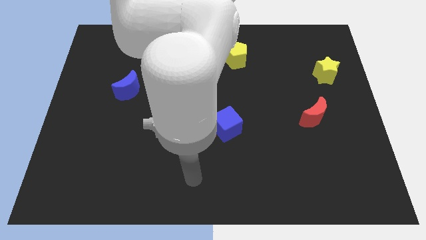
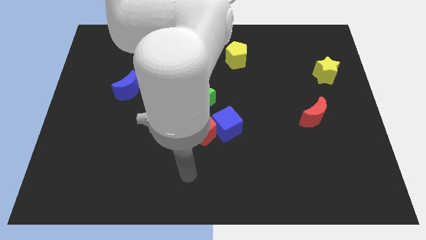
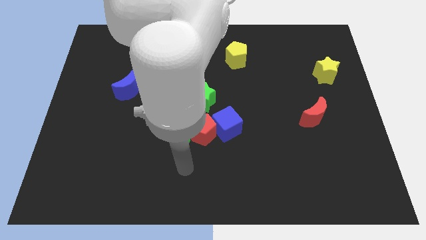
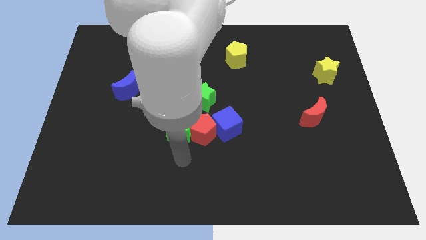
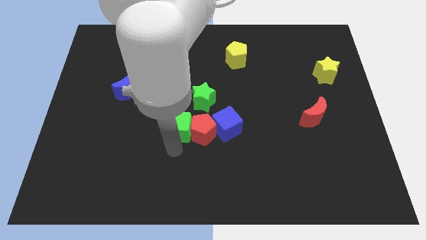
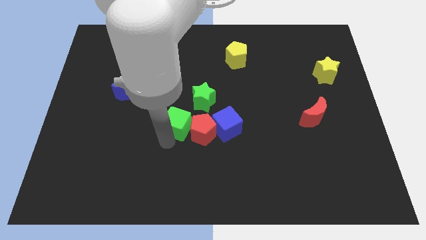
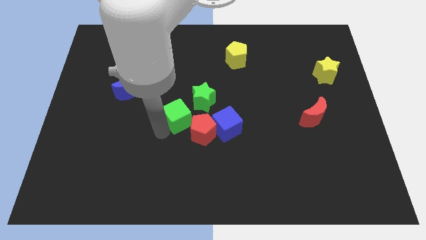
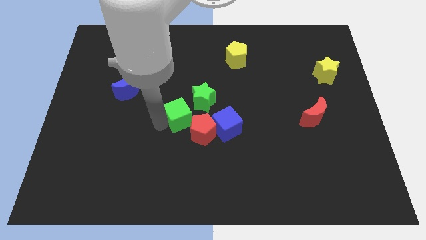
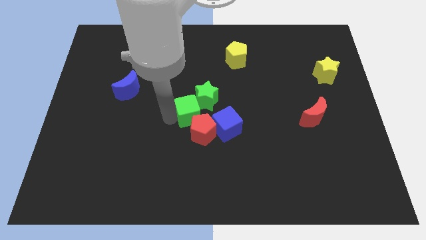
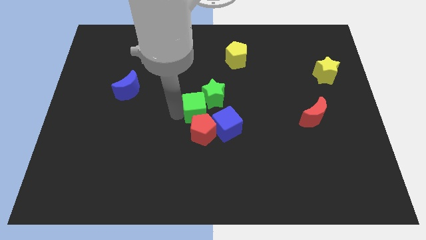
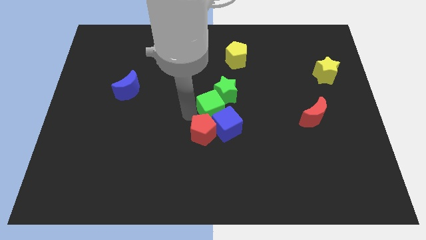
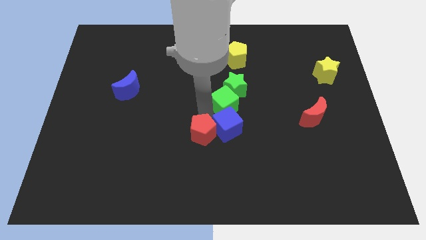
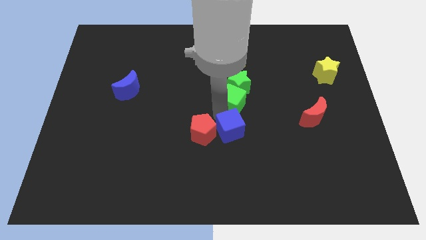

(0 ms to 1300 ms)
move the red pentagon away from the green cube, blue cube, and green star

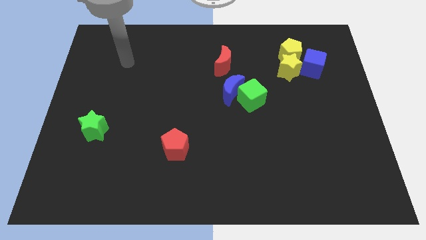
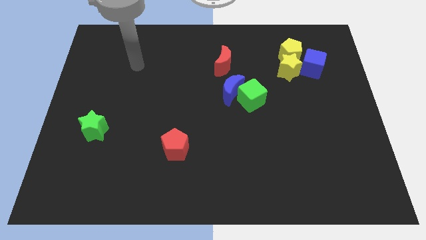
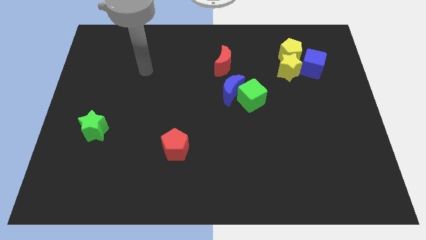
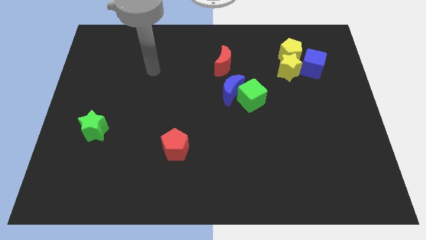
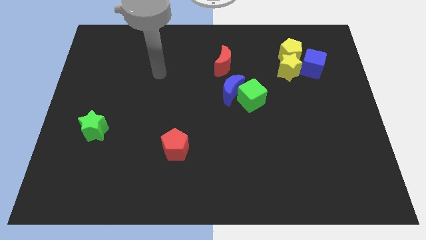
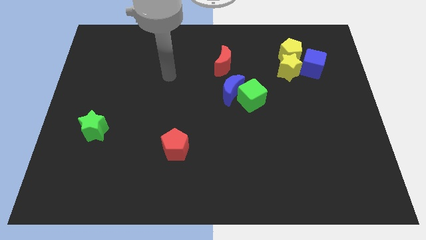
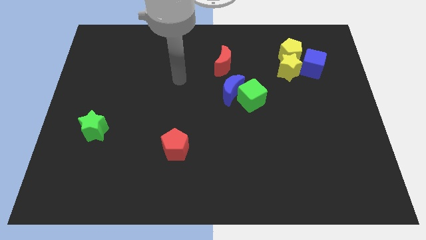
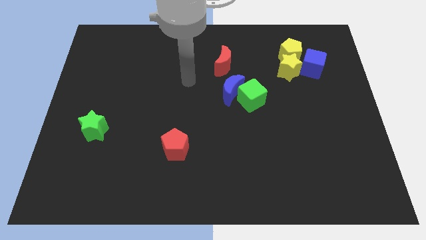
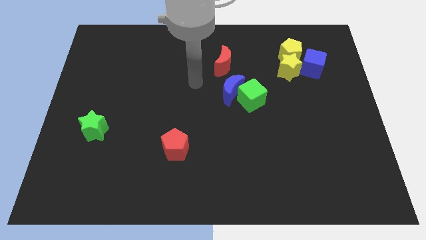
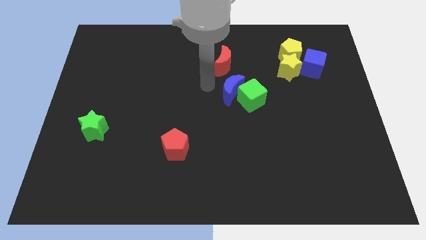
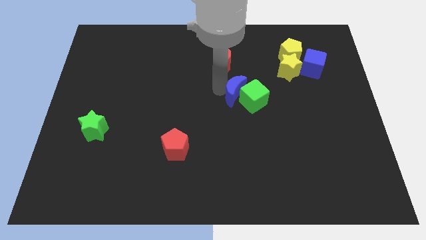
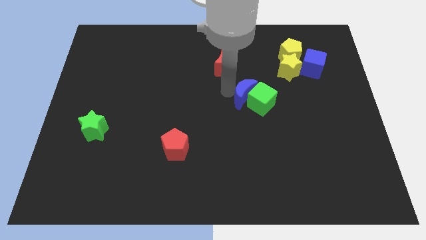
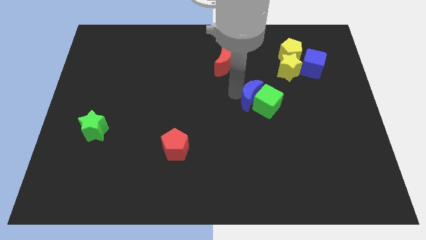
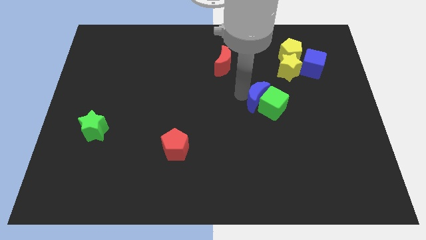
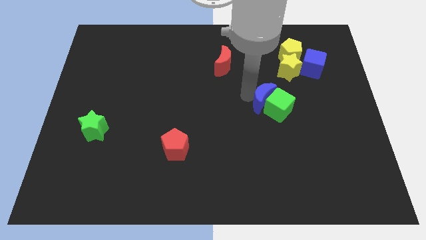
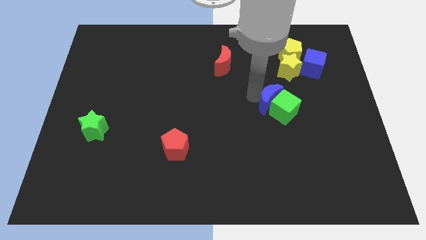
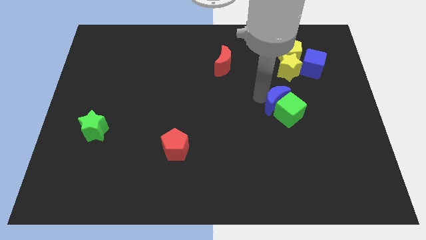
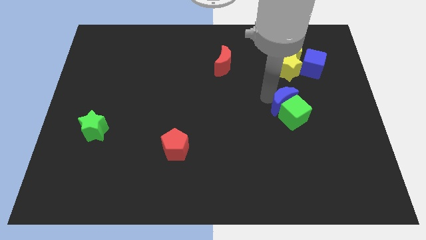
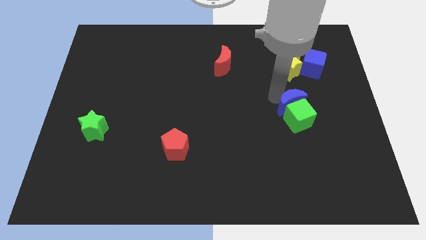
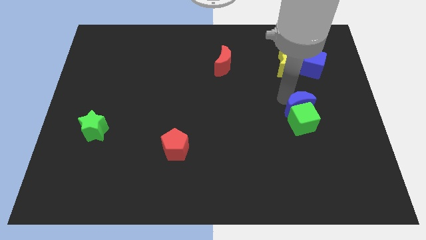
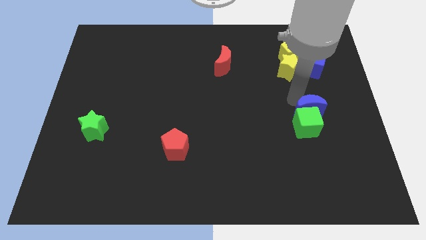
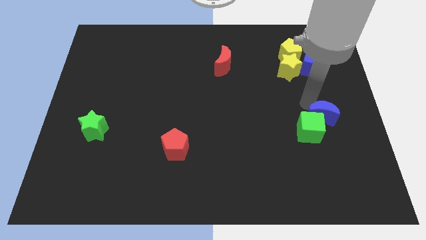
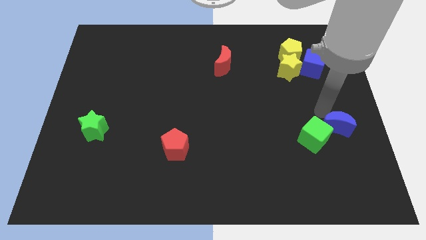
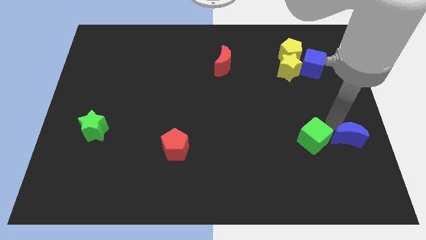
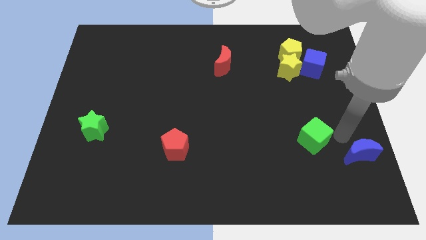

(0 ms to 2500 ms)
pull the green cube apart from the blue moon

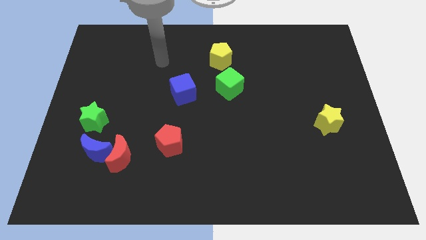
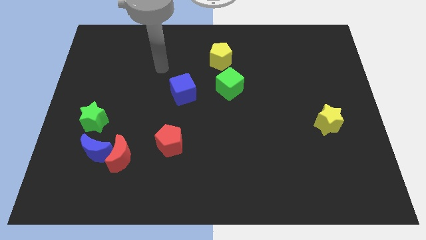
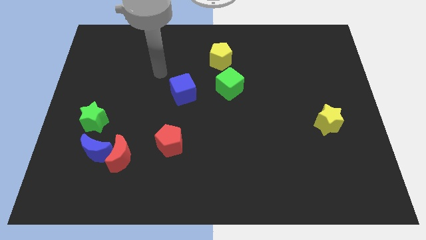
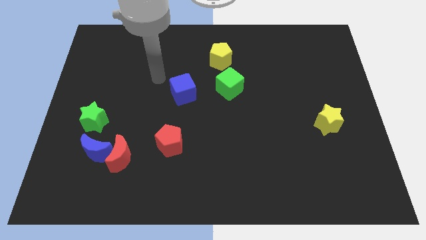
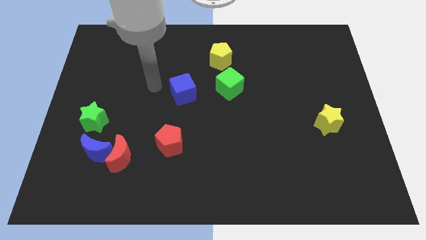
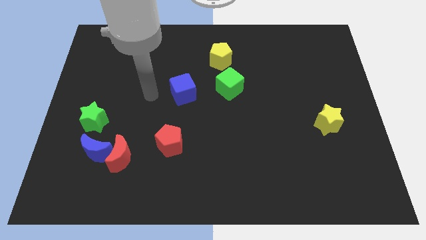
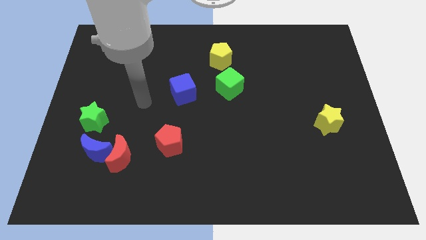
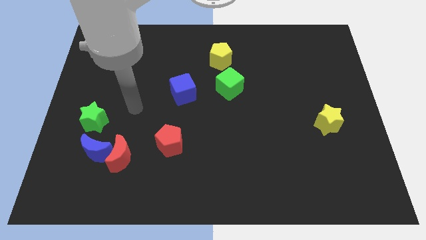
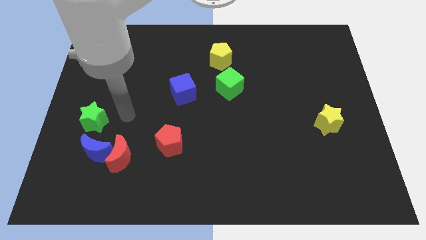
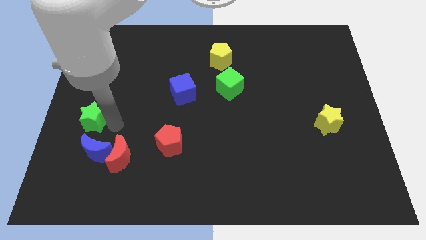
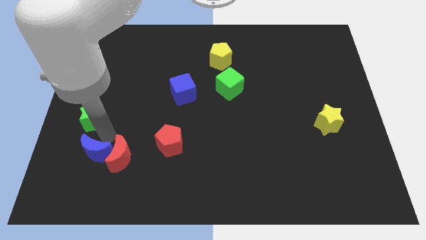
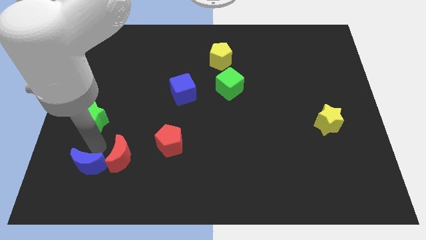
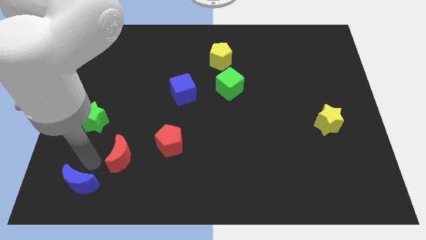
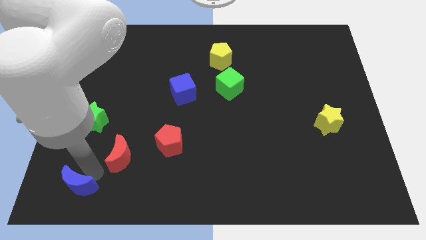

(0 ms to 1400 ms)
move the red moon away from the blue moon

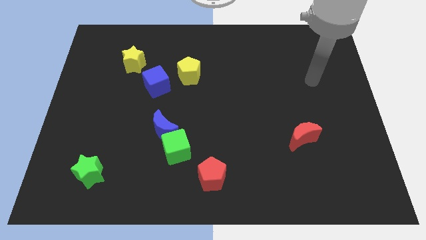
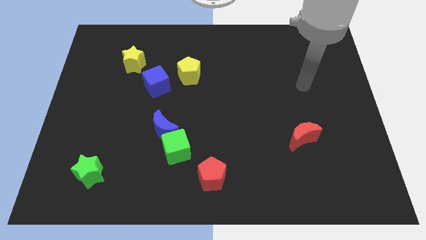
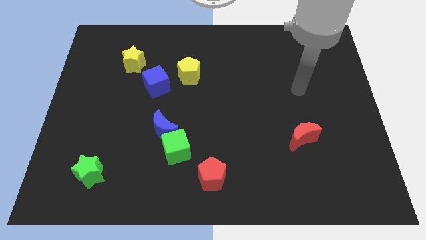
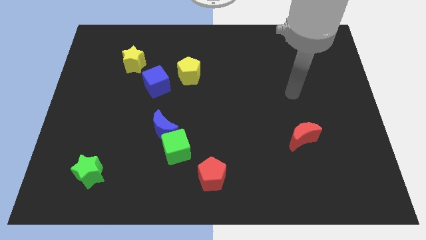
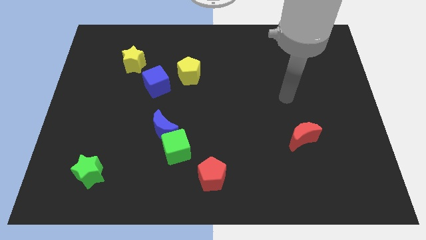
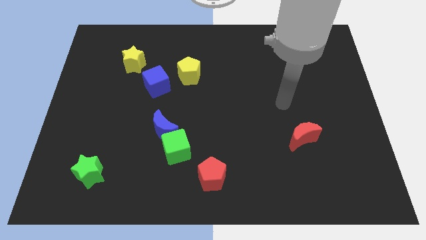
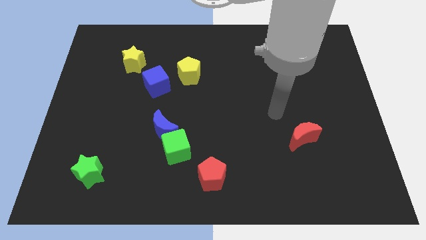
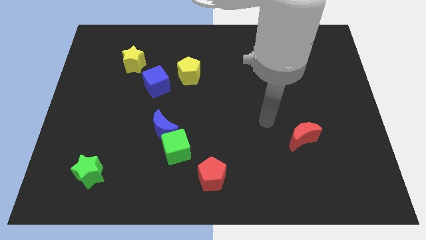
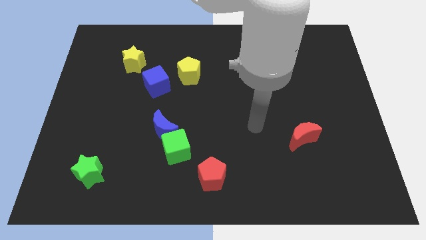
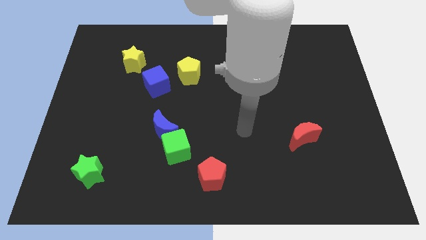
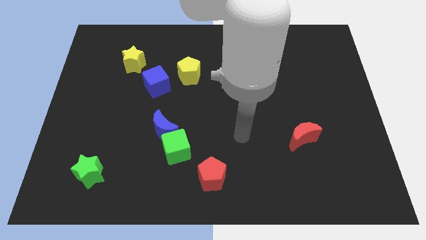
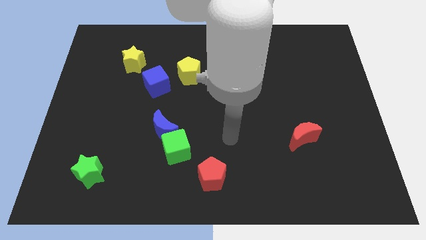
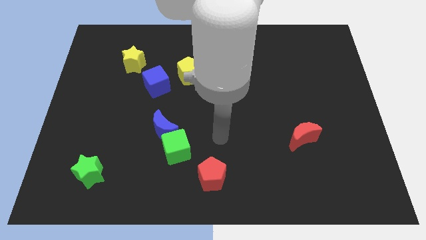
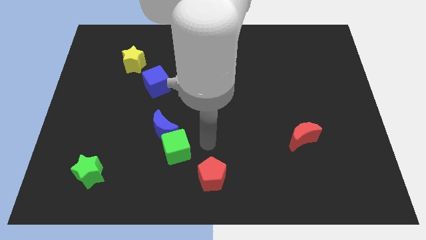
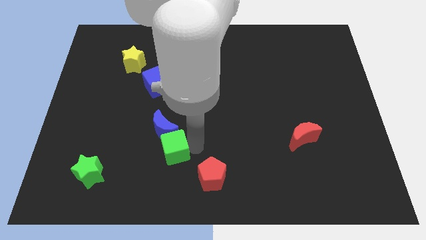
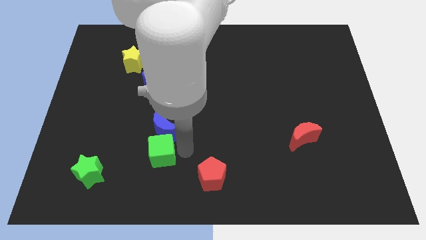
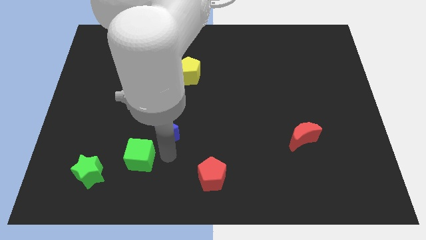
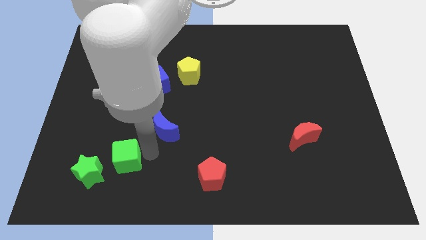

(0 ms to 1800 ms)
separate the blue moon from the green cube

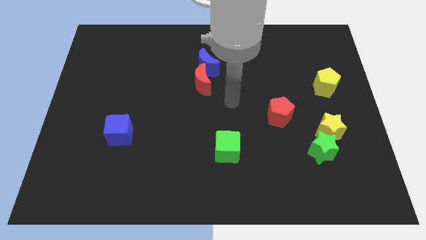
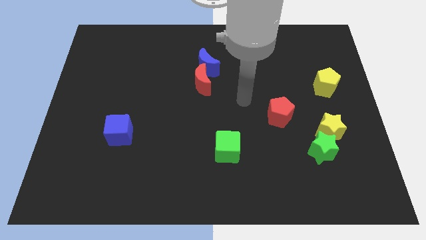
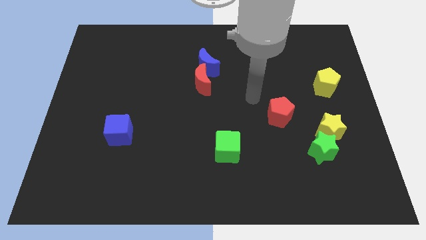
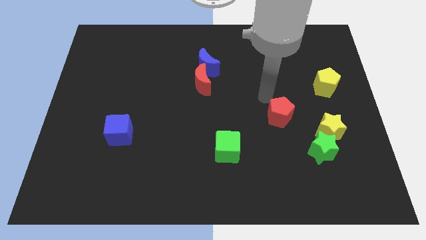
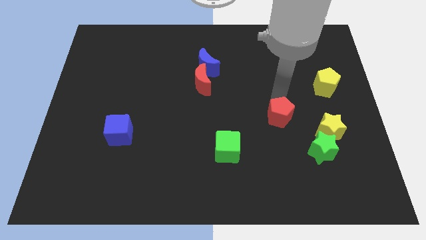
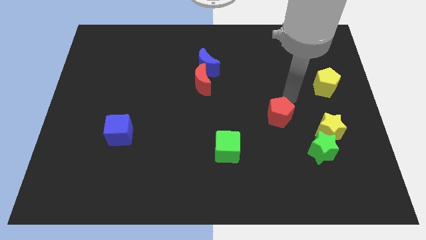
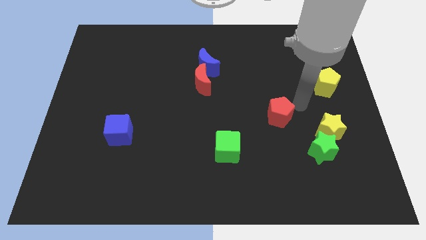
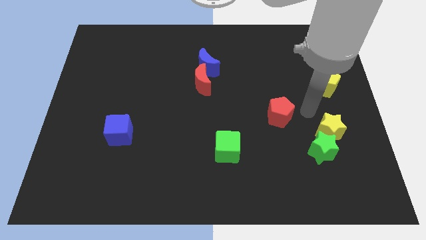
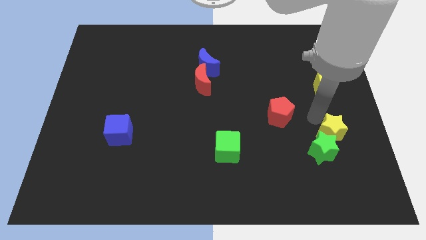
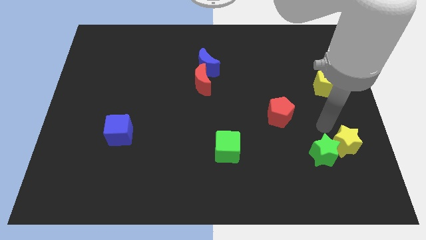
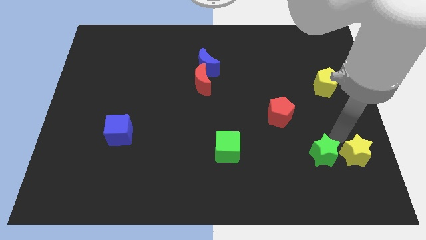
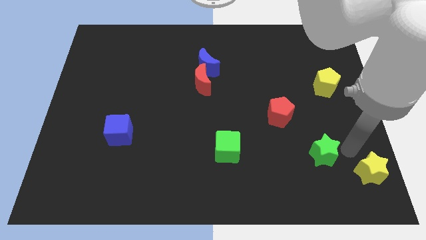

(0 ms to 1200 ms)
separate the green star from the yellow star

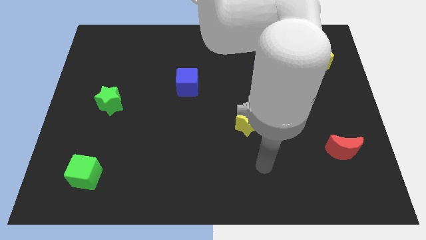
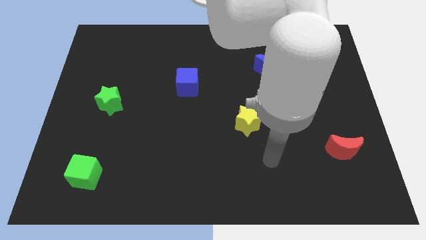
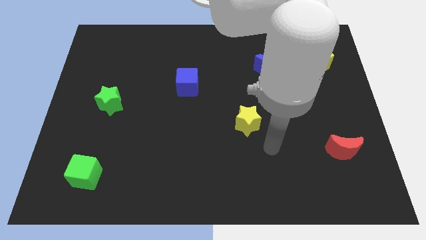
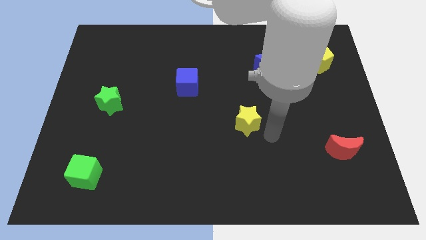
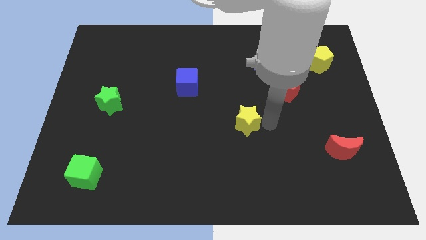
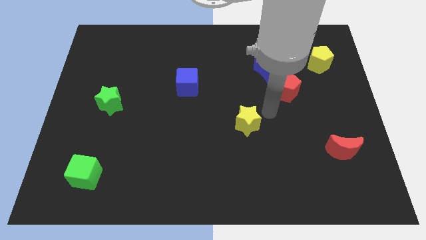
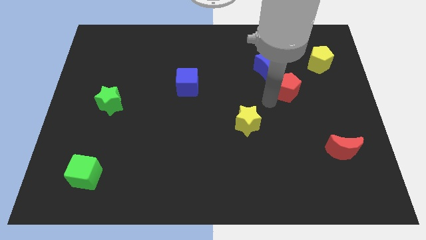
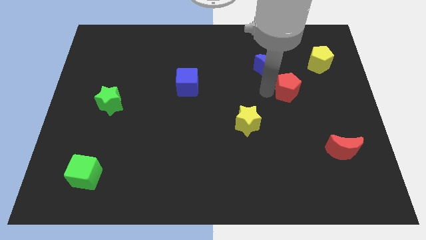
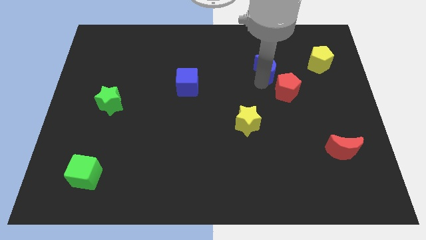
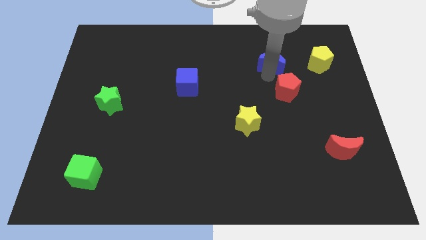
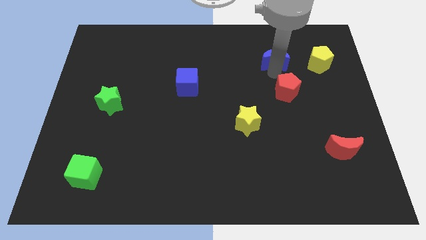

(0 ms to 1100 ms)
move the red pentagon away from the blue moon

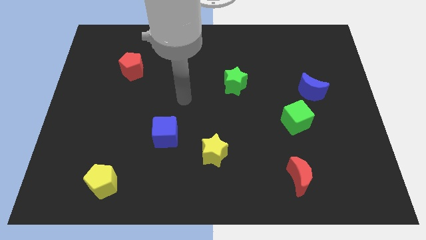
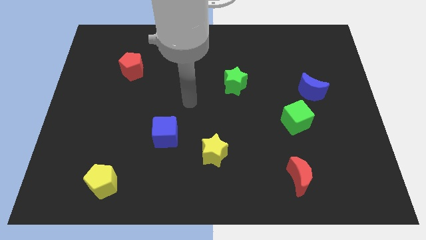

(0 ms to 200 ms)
pull the blue moon apart from the green cube
